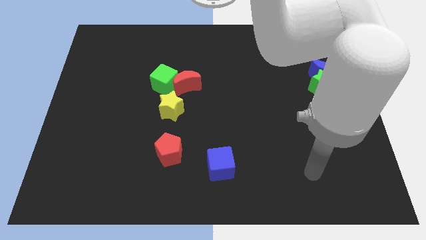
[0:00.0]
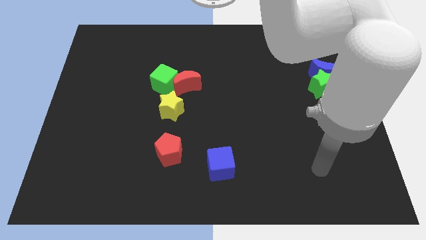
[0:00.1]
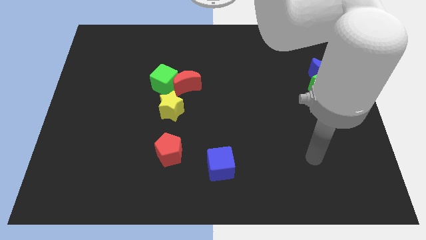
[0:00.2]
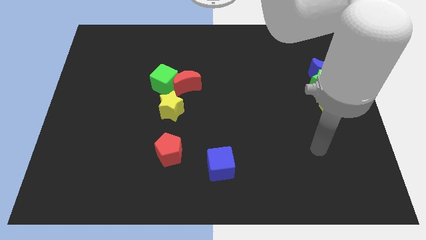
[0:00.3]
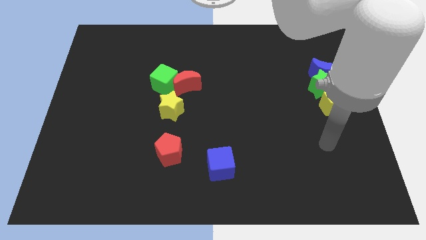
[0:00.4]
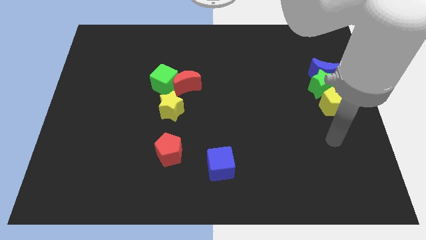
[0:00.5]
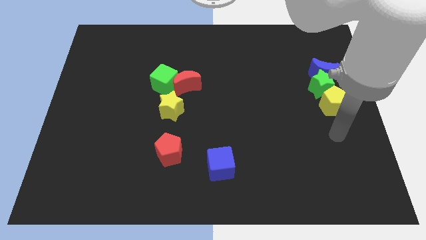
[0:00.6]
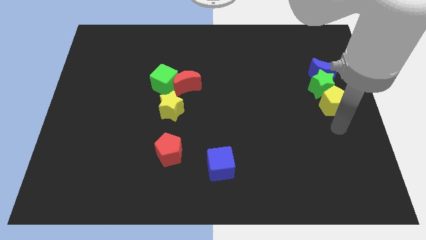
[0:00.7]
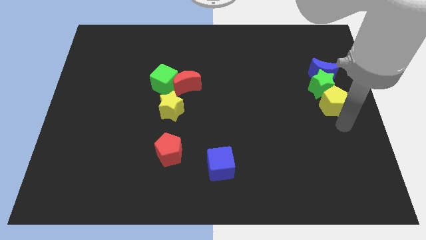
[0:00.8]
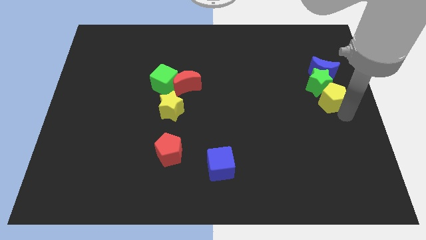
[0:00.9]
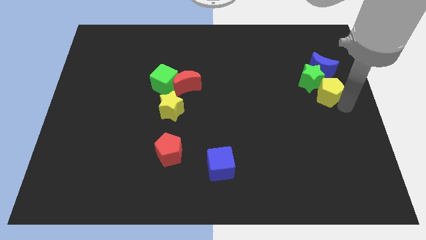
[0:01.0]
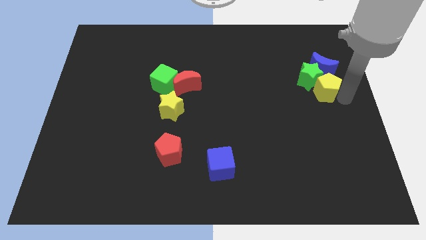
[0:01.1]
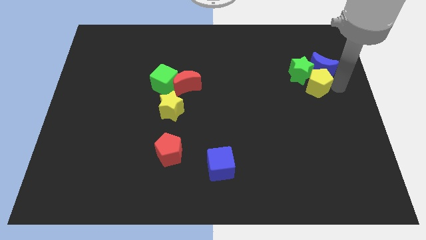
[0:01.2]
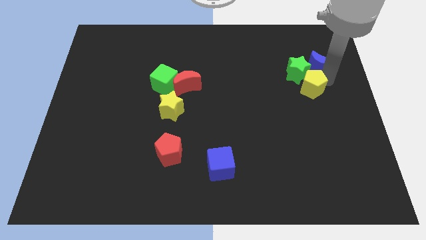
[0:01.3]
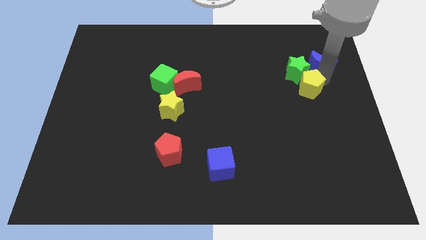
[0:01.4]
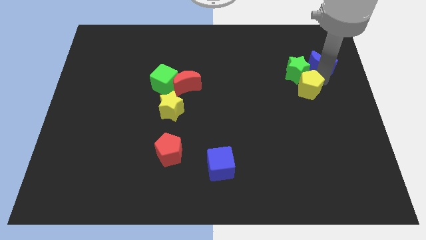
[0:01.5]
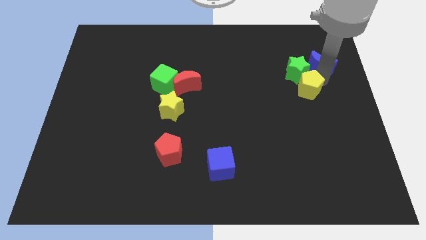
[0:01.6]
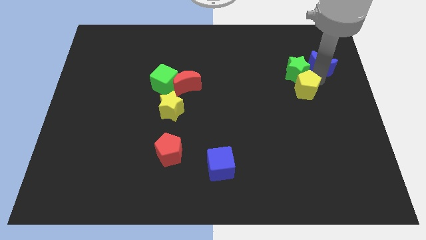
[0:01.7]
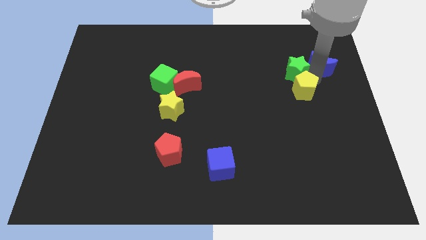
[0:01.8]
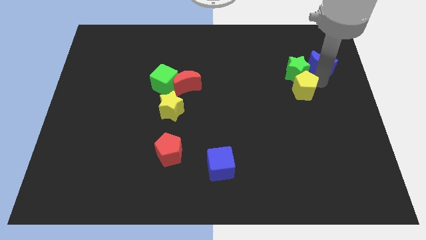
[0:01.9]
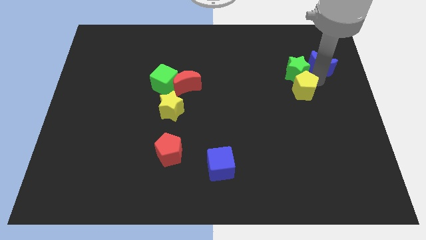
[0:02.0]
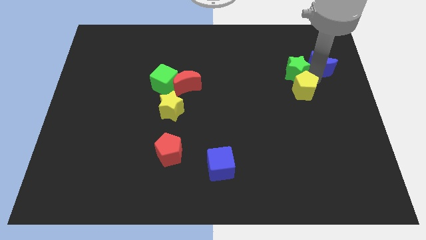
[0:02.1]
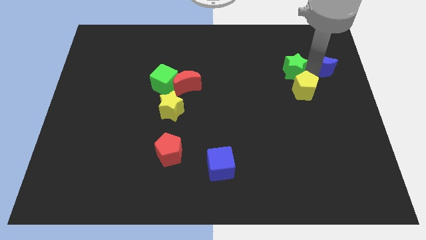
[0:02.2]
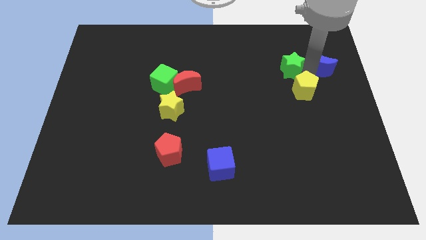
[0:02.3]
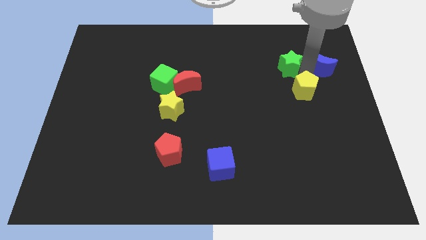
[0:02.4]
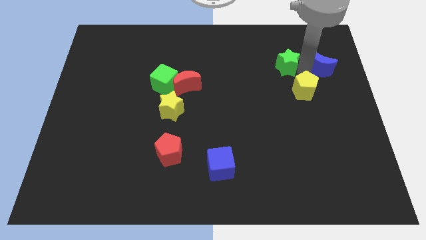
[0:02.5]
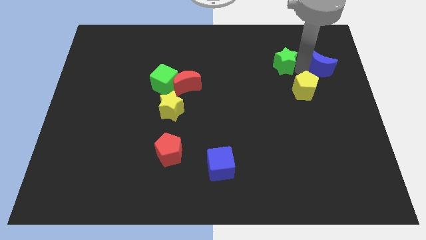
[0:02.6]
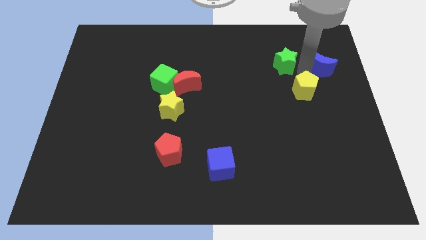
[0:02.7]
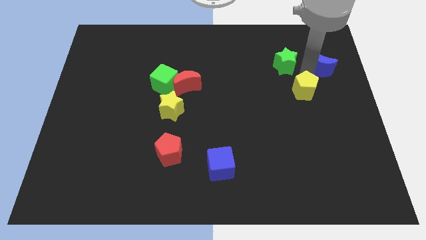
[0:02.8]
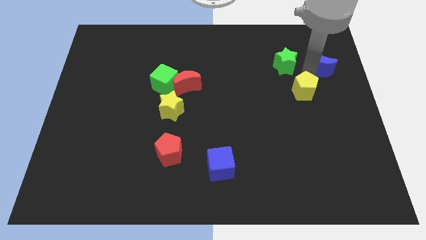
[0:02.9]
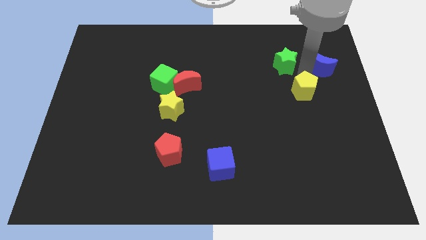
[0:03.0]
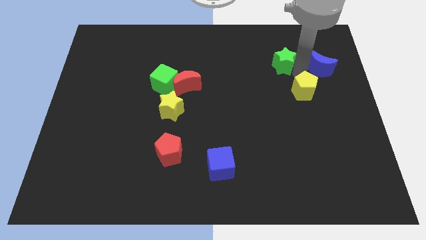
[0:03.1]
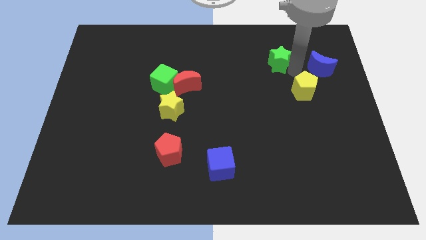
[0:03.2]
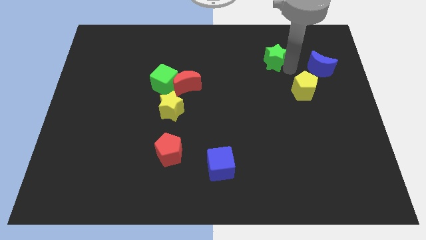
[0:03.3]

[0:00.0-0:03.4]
move the green star away from the blue moon and yellow pentagon

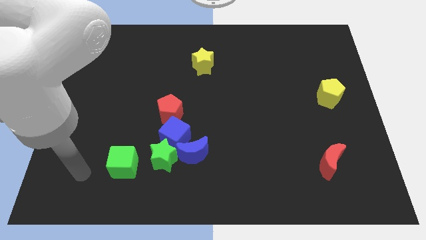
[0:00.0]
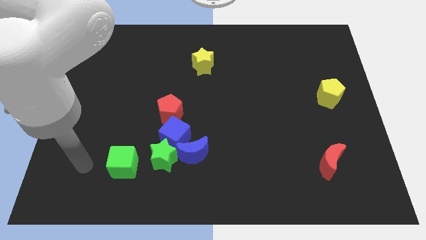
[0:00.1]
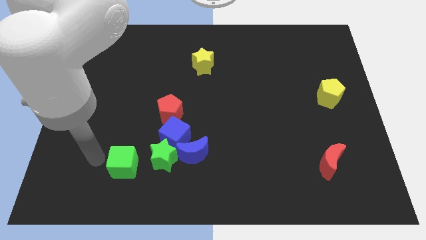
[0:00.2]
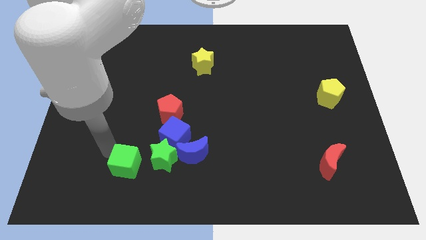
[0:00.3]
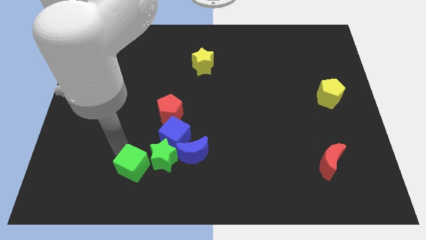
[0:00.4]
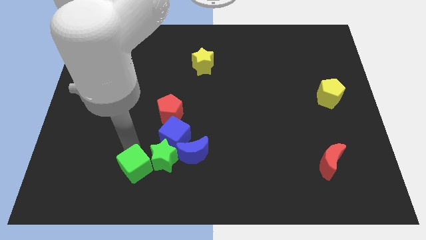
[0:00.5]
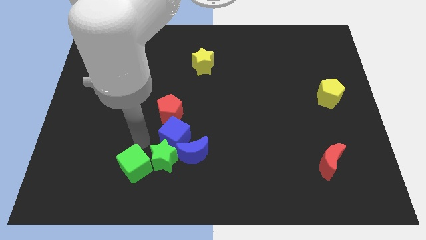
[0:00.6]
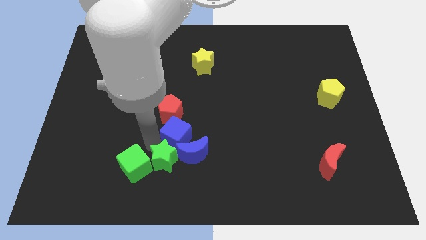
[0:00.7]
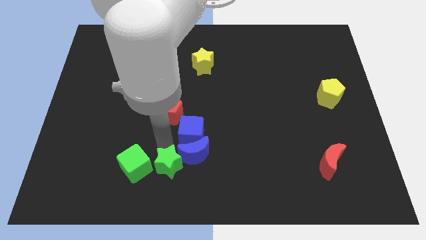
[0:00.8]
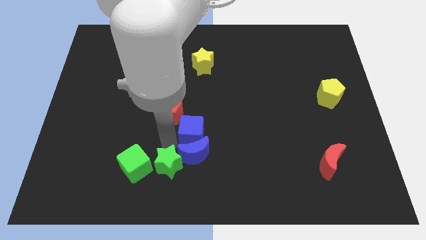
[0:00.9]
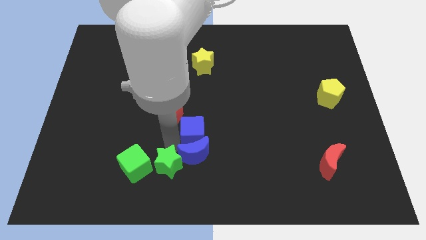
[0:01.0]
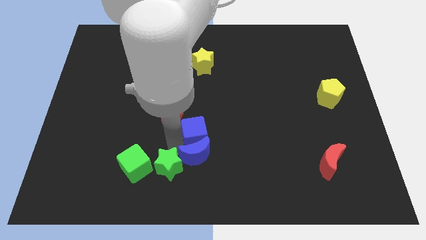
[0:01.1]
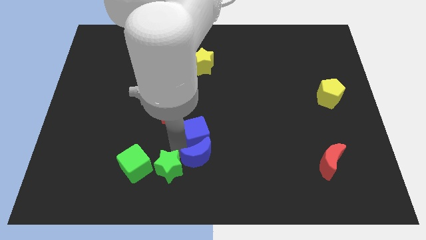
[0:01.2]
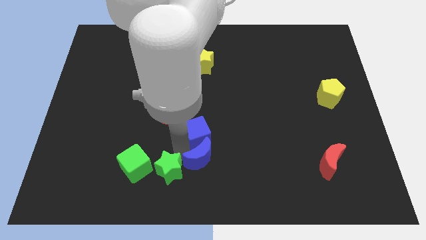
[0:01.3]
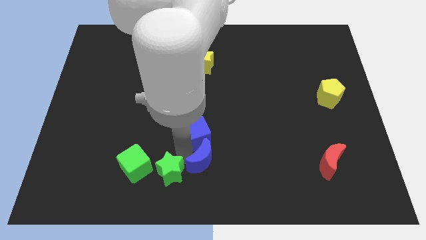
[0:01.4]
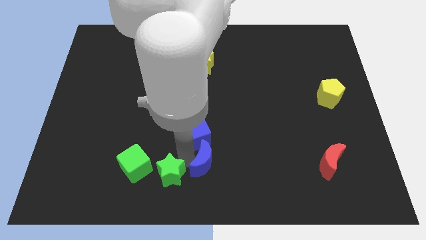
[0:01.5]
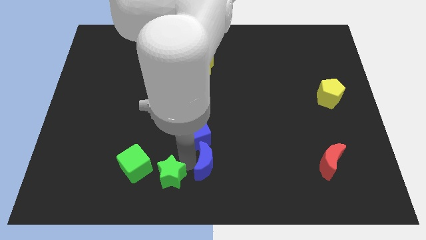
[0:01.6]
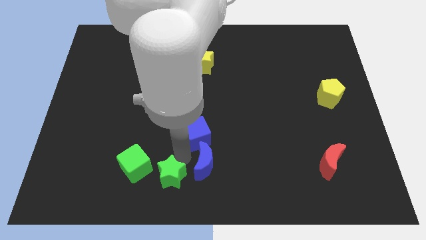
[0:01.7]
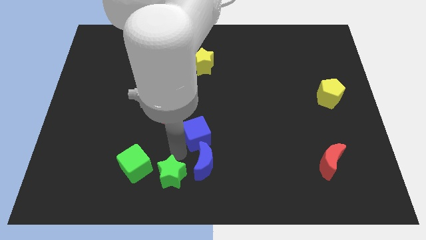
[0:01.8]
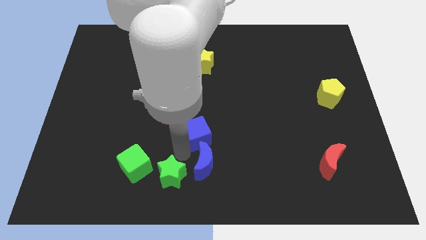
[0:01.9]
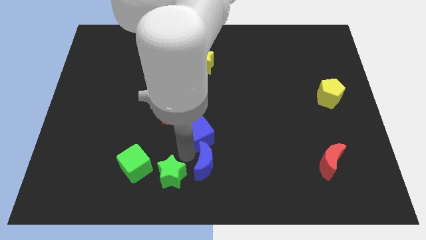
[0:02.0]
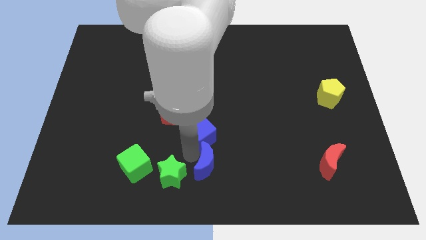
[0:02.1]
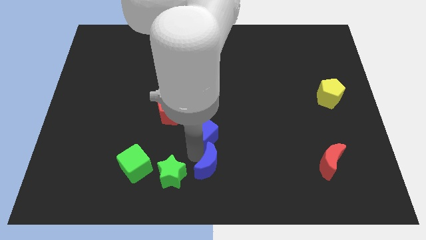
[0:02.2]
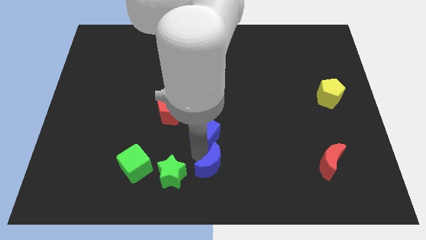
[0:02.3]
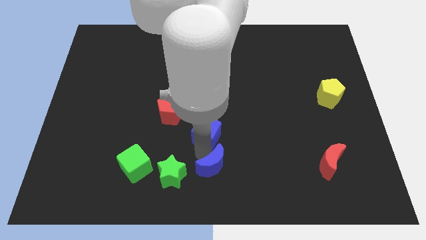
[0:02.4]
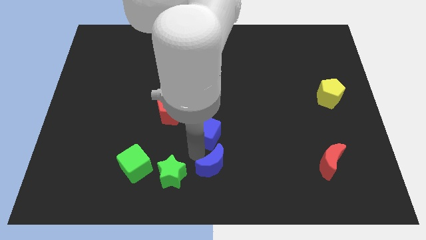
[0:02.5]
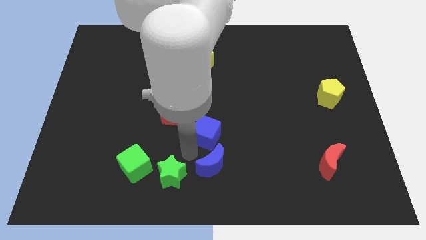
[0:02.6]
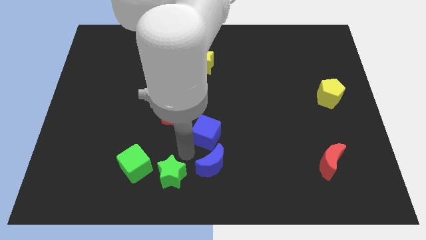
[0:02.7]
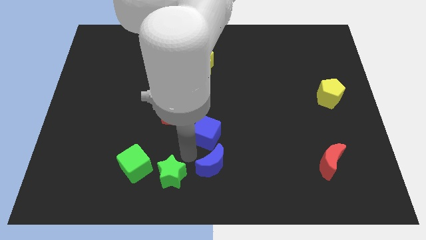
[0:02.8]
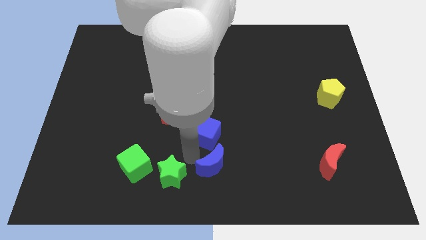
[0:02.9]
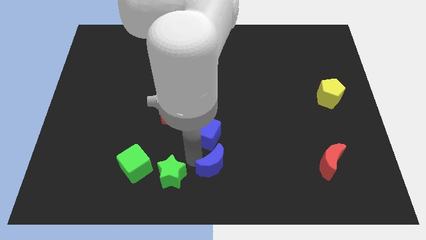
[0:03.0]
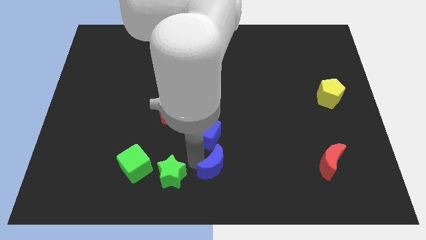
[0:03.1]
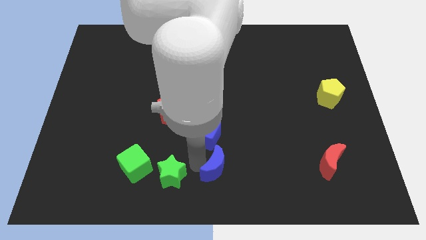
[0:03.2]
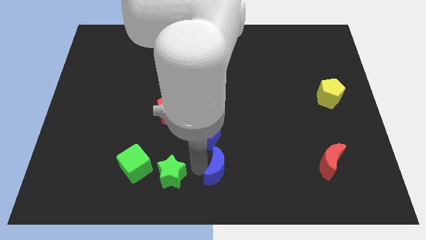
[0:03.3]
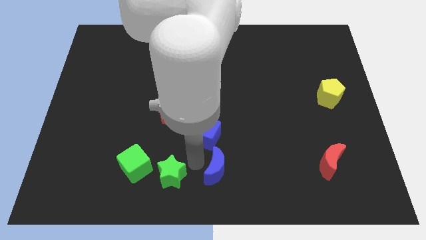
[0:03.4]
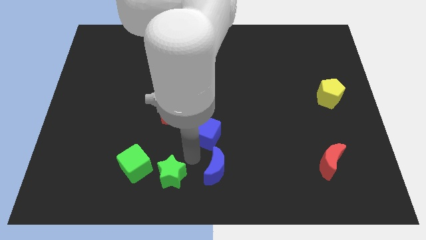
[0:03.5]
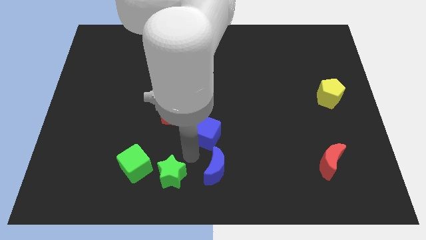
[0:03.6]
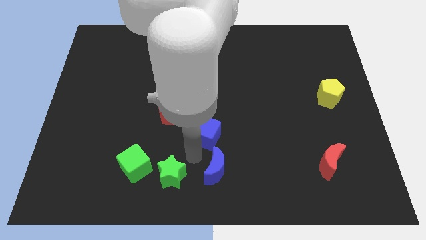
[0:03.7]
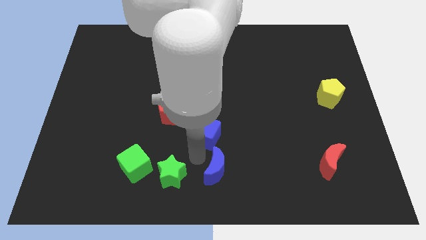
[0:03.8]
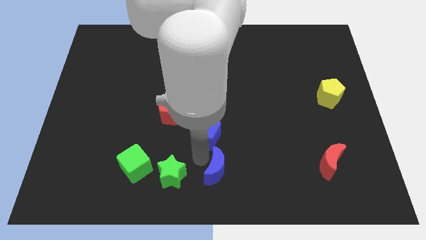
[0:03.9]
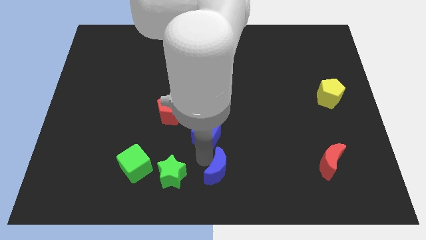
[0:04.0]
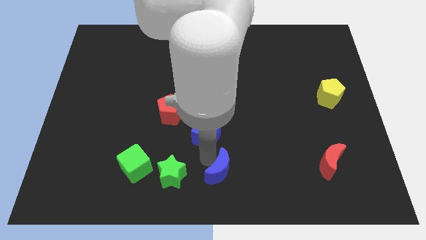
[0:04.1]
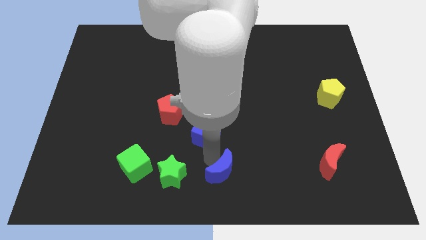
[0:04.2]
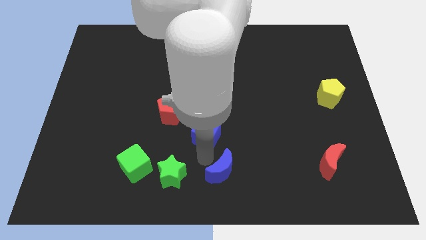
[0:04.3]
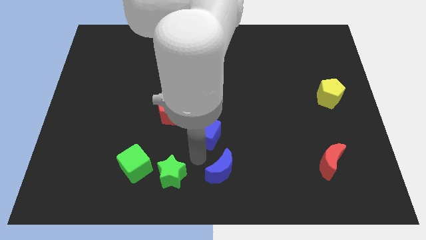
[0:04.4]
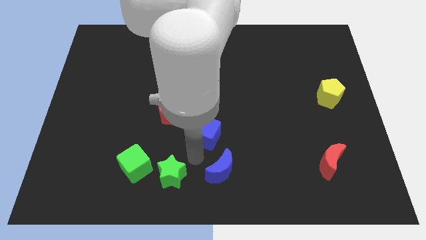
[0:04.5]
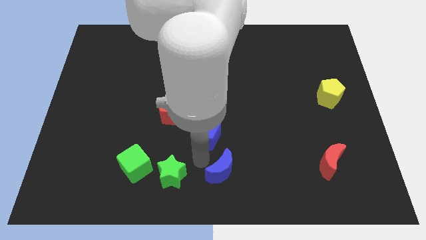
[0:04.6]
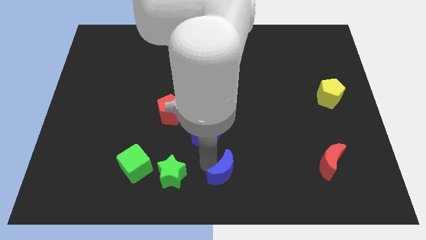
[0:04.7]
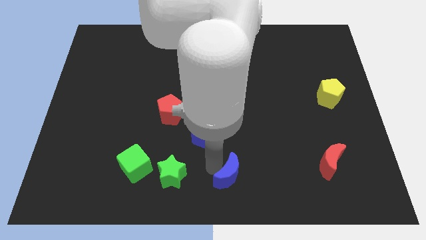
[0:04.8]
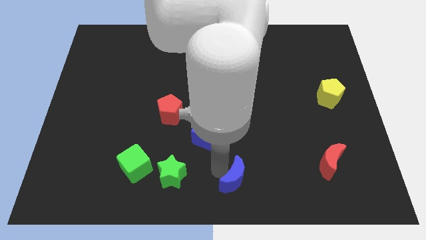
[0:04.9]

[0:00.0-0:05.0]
move the blue moon away from the blue cube and green star

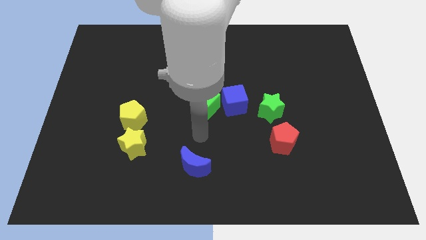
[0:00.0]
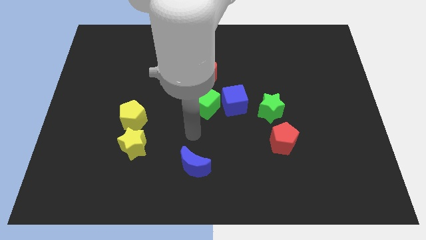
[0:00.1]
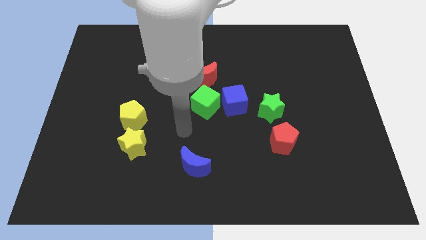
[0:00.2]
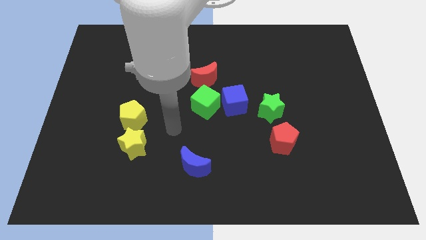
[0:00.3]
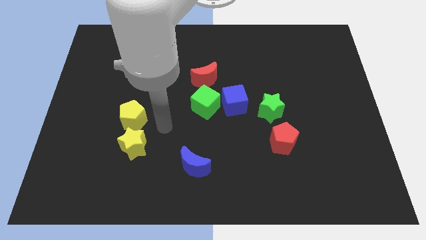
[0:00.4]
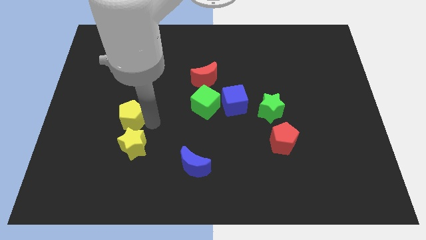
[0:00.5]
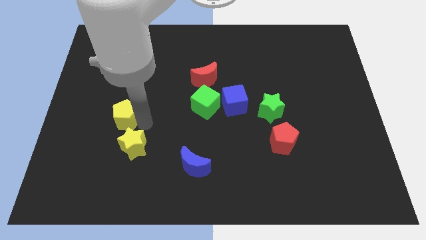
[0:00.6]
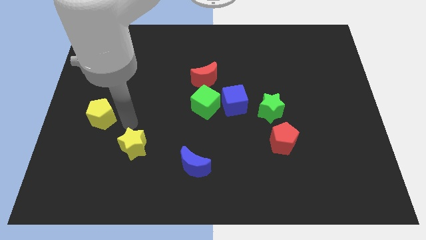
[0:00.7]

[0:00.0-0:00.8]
pull the yellow star apart from the yellow pentagon

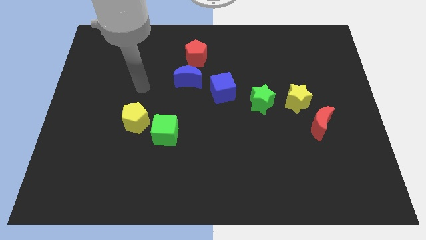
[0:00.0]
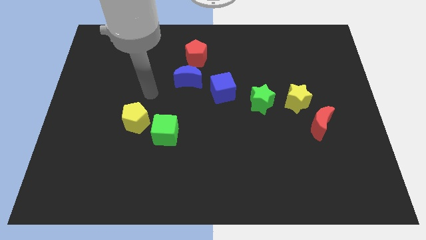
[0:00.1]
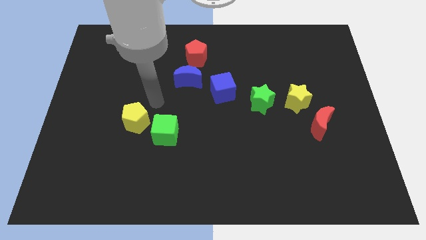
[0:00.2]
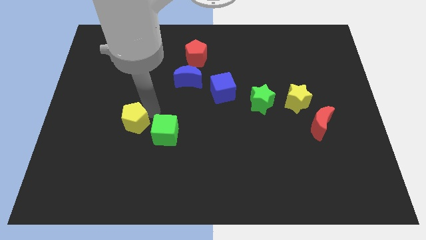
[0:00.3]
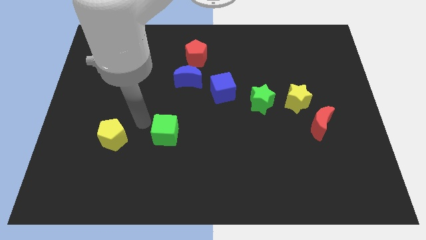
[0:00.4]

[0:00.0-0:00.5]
separate the green cube from the yellow pentagon
